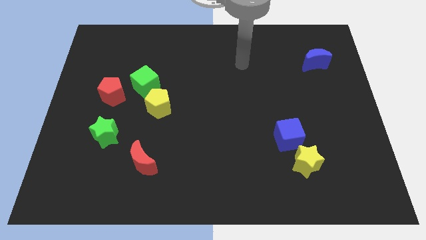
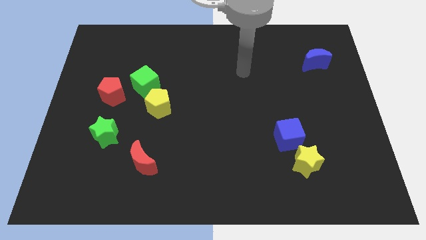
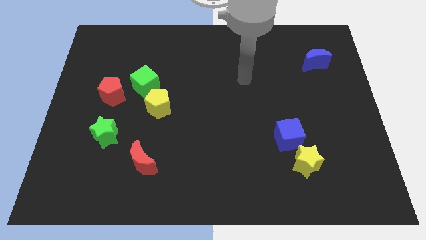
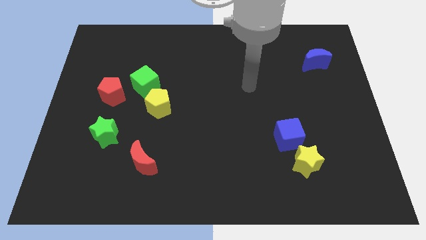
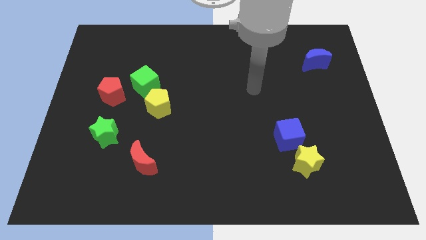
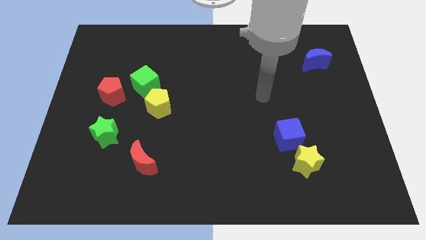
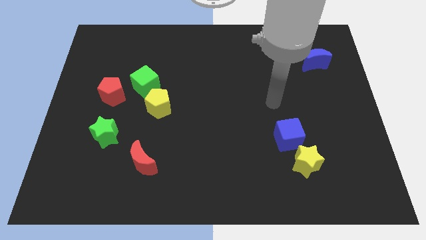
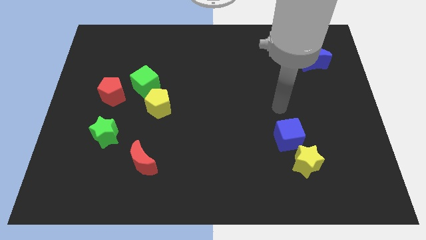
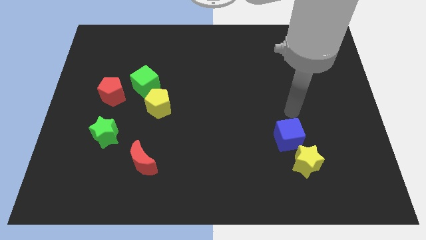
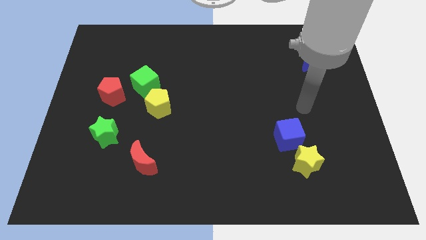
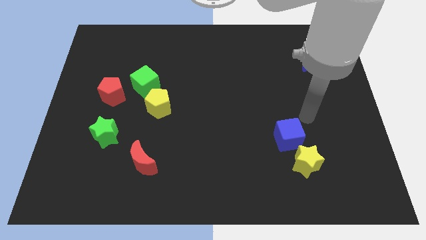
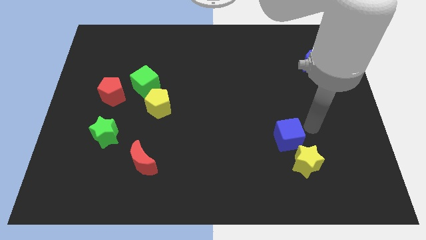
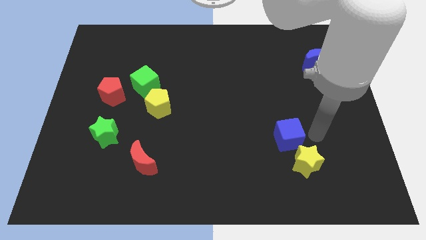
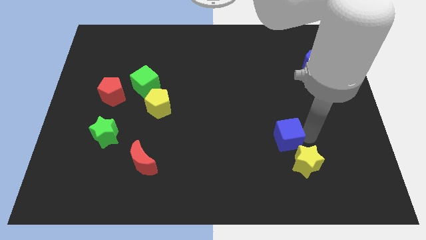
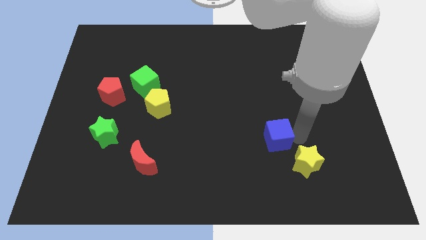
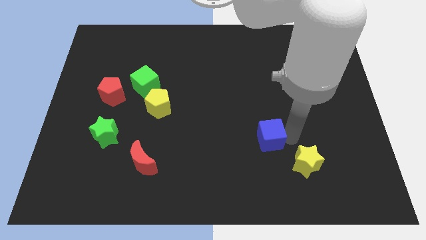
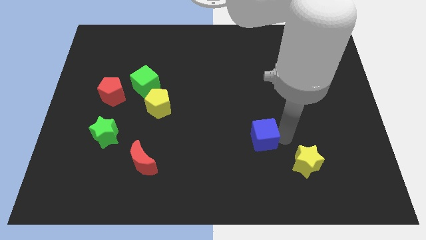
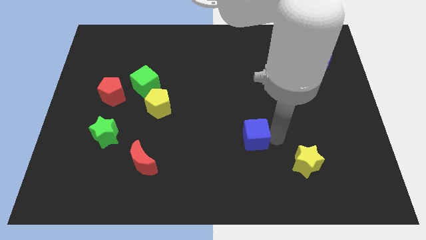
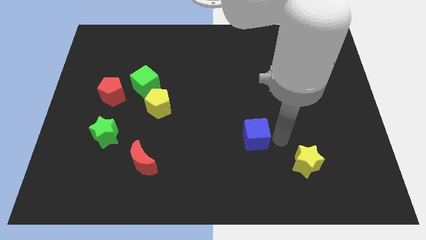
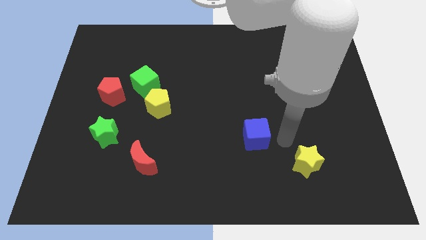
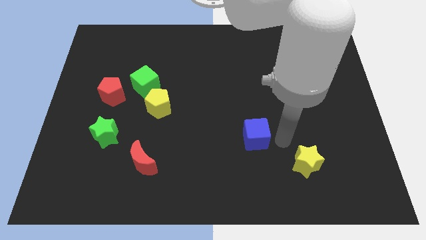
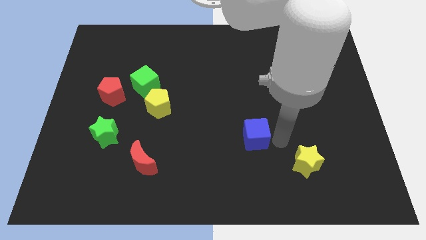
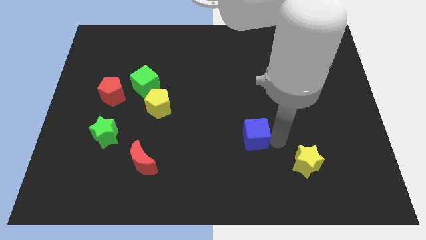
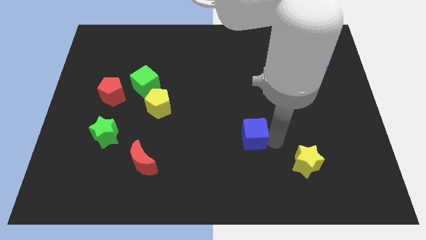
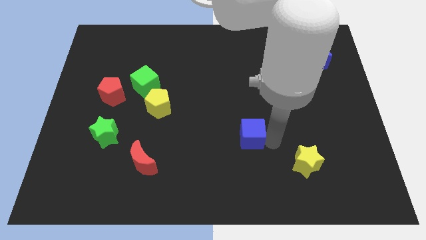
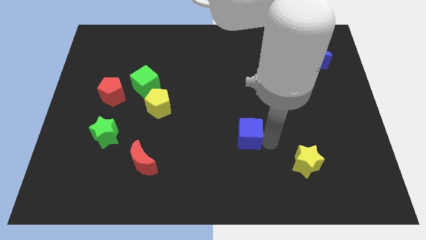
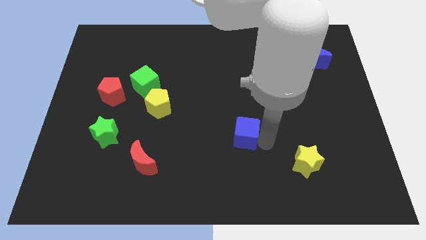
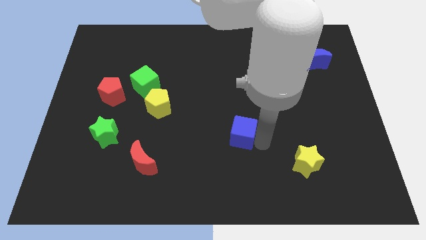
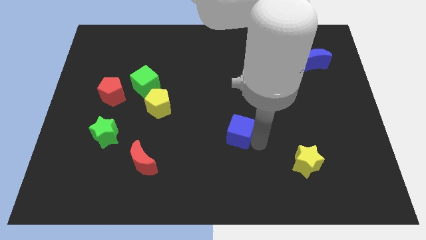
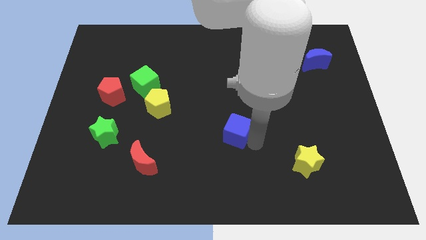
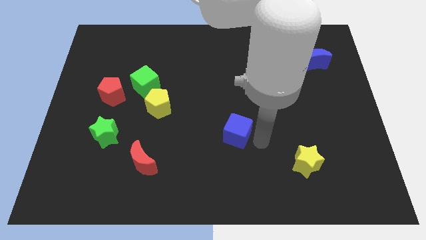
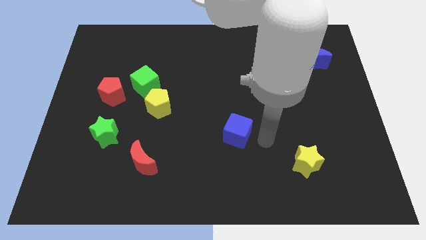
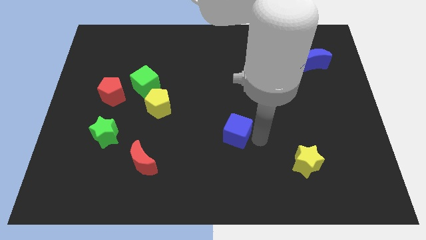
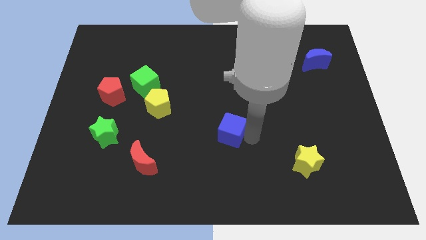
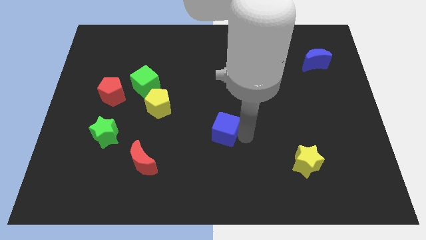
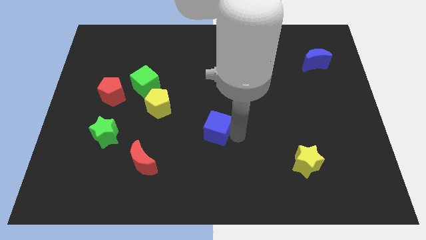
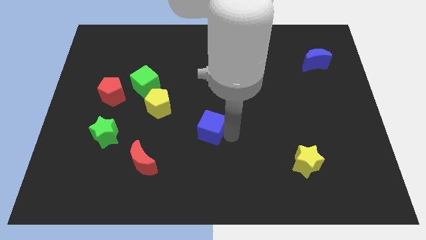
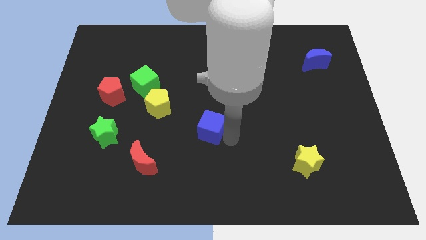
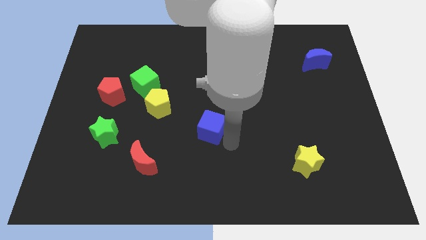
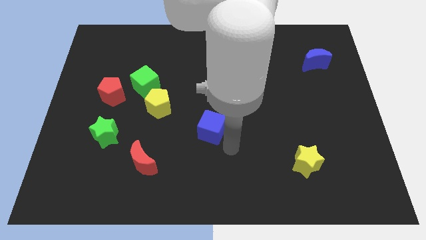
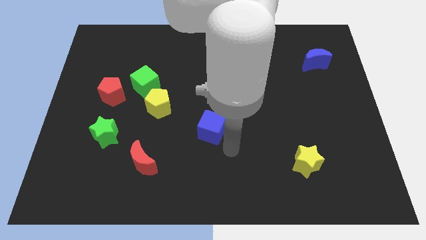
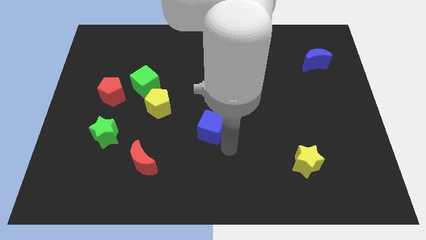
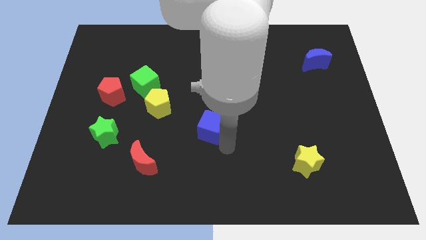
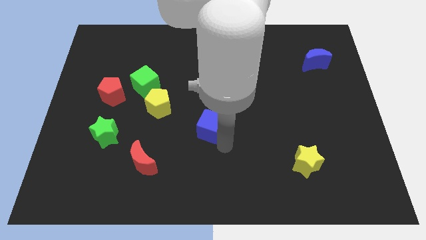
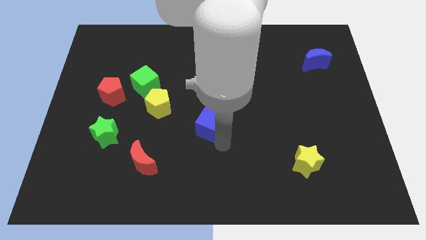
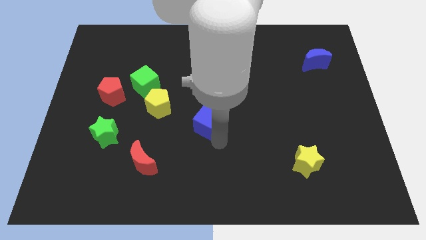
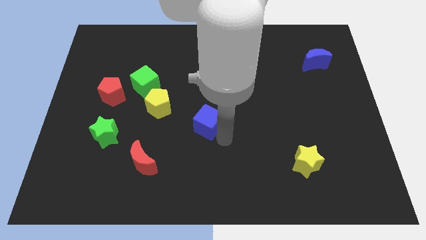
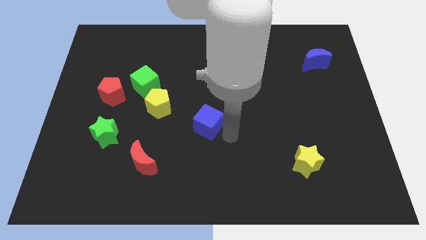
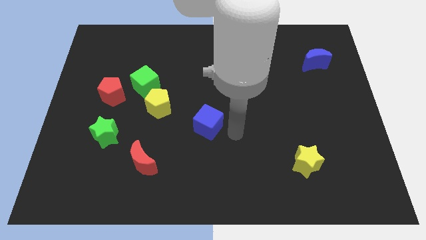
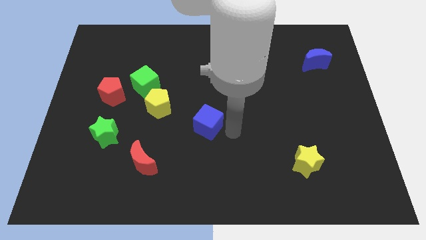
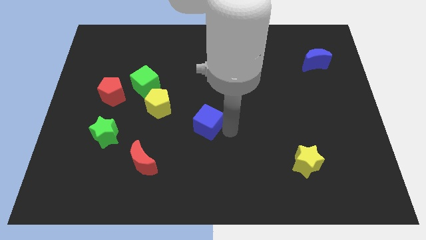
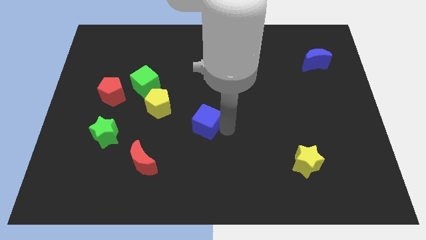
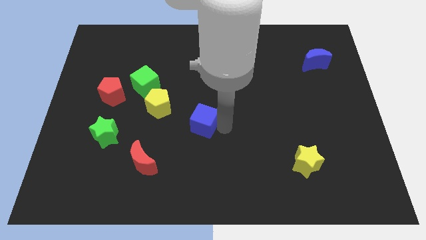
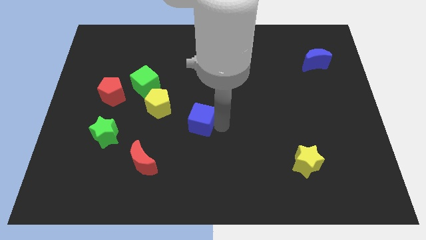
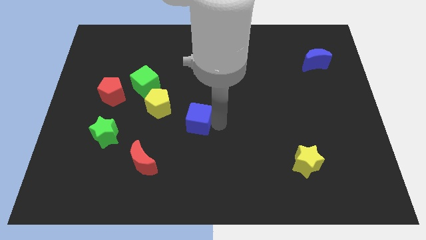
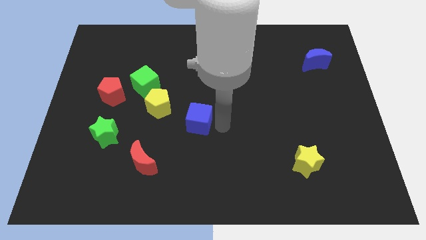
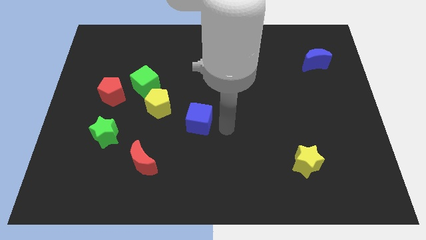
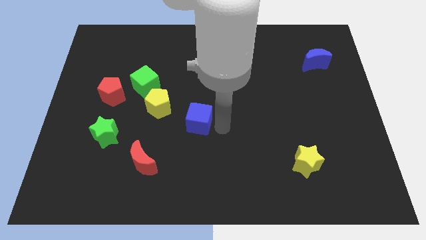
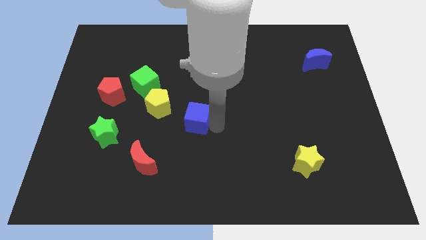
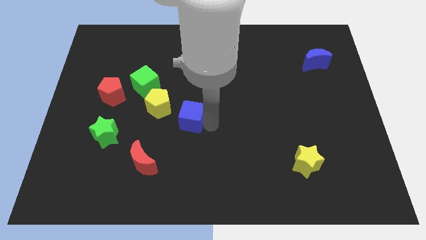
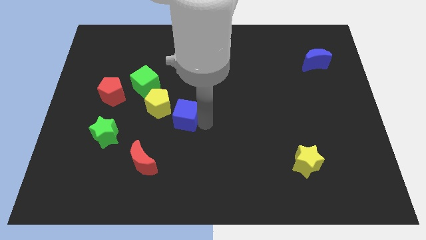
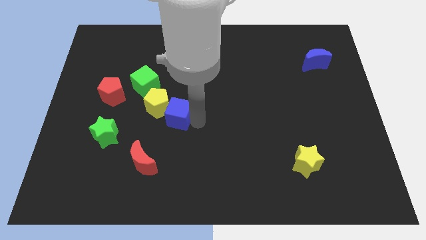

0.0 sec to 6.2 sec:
put the blue cube next to the yellow pentagon

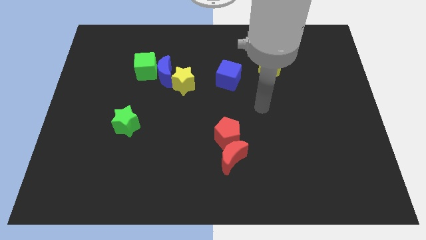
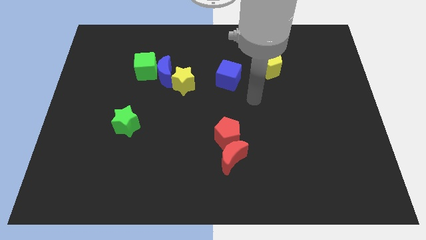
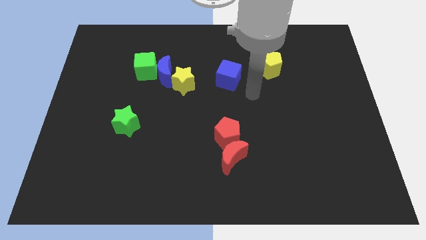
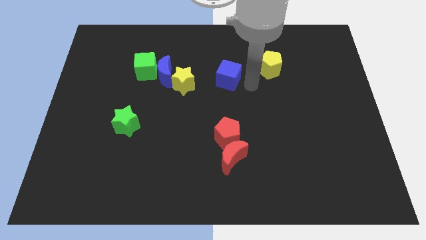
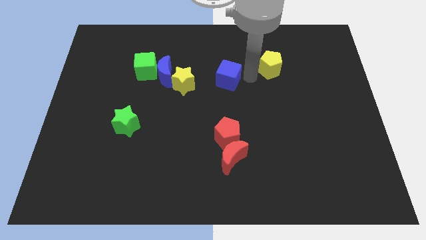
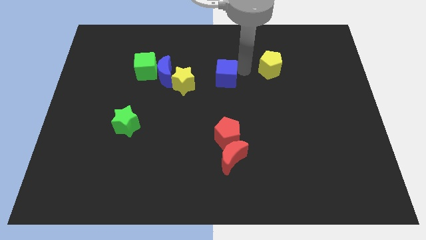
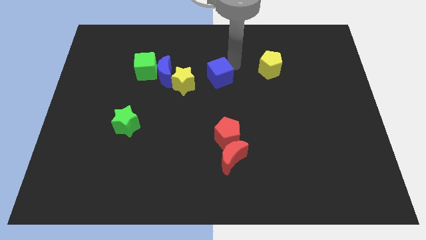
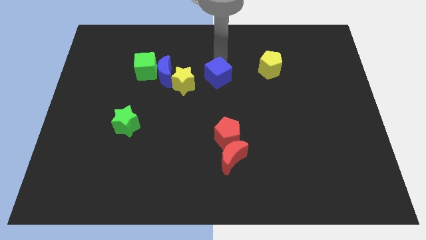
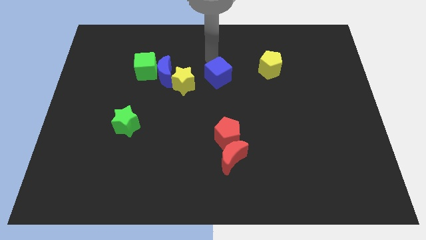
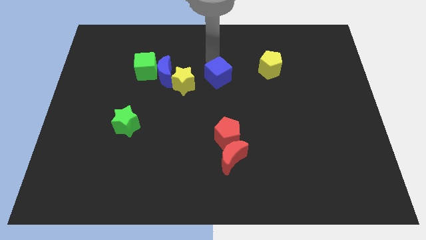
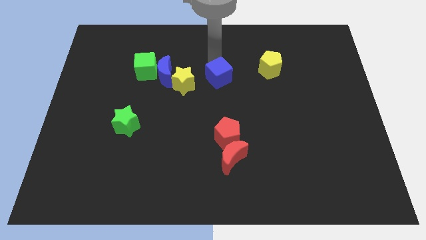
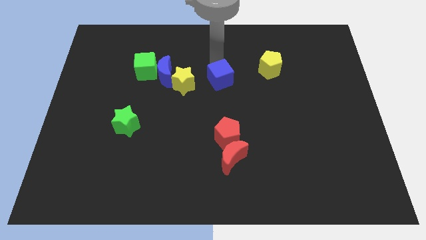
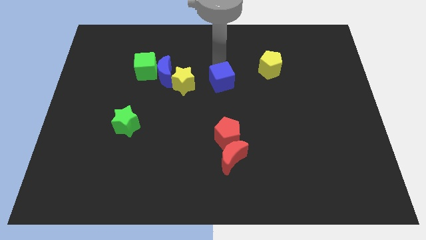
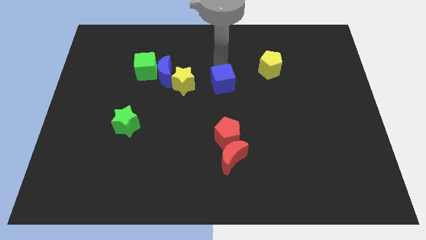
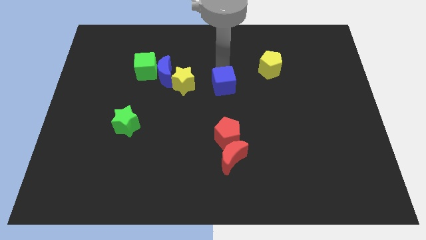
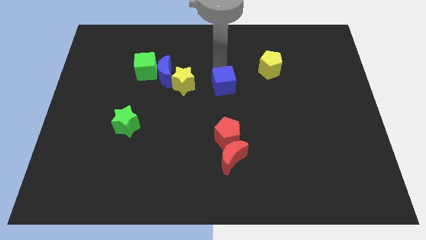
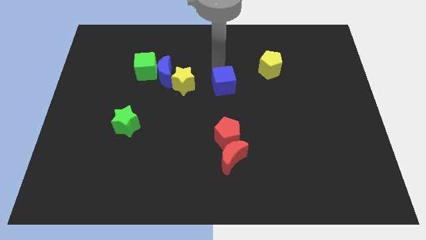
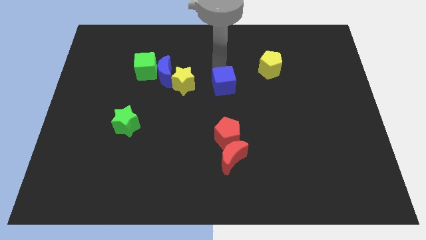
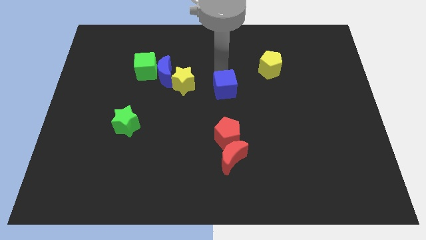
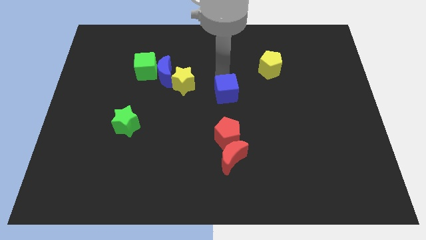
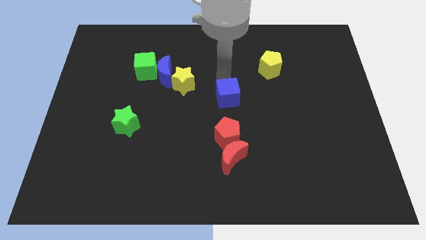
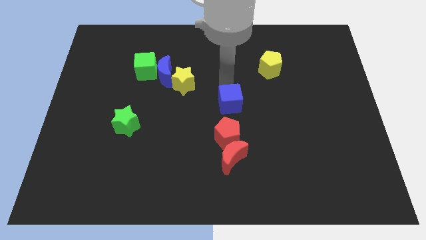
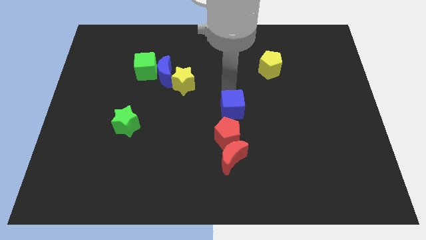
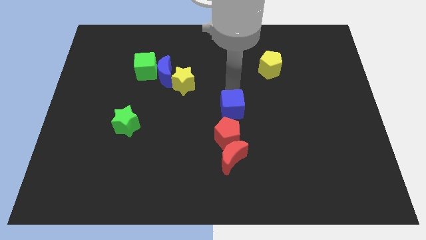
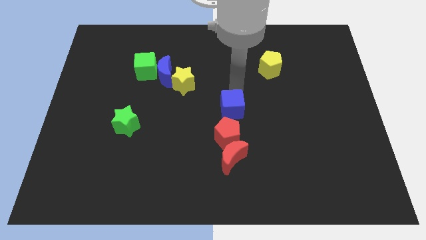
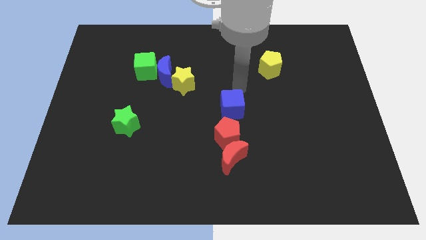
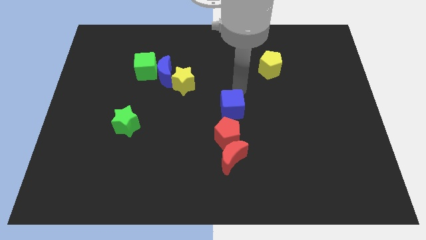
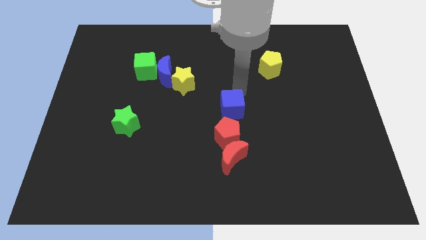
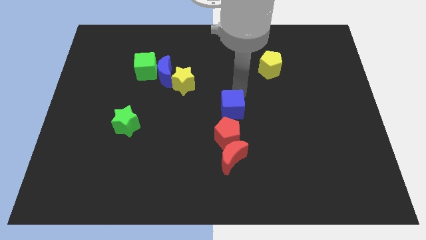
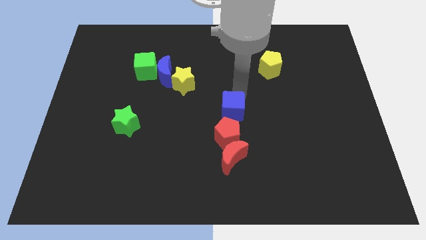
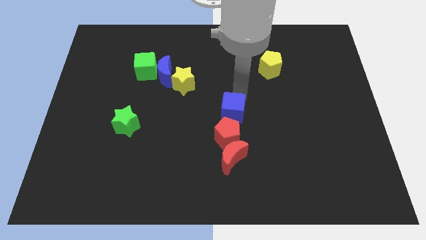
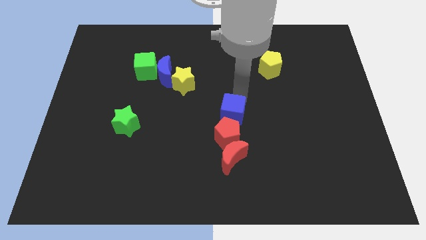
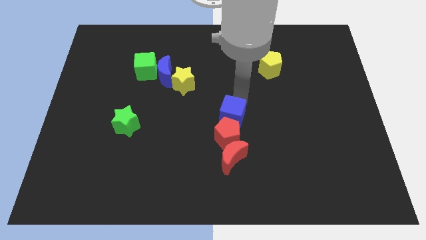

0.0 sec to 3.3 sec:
push the blue cube next to the red pentagon
